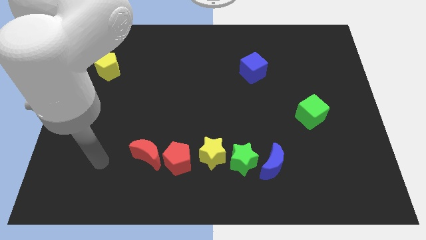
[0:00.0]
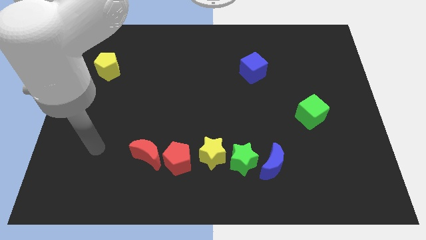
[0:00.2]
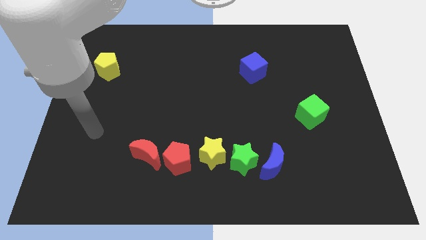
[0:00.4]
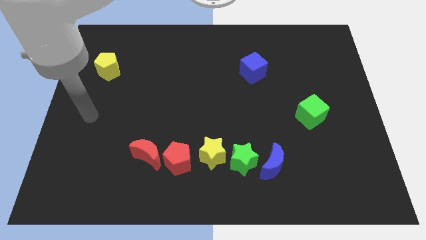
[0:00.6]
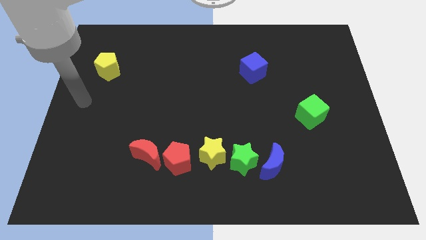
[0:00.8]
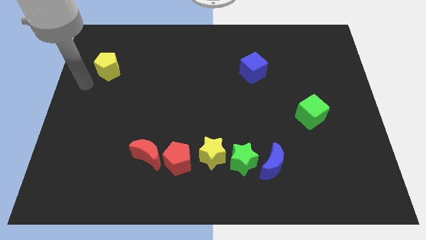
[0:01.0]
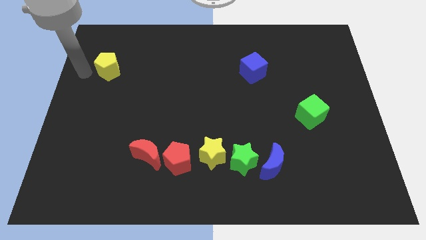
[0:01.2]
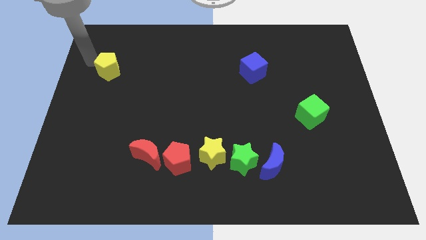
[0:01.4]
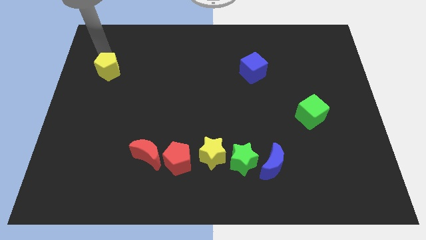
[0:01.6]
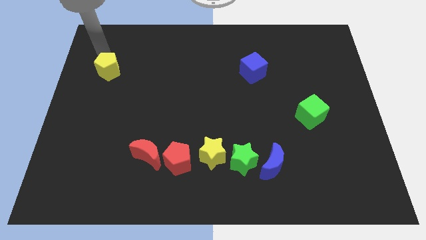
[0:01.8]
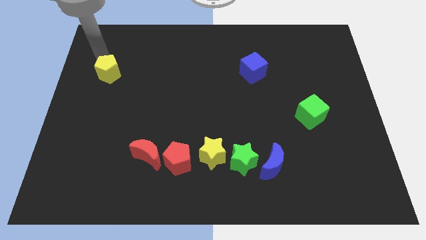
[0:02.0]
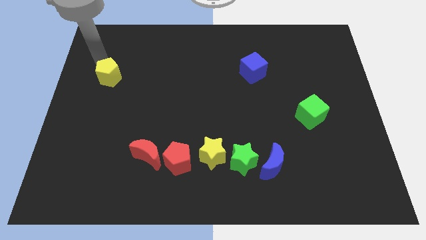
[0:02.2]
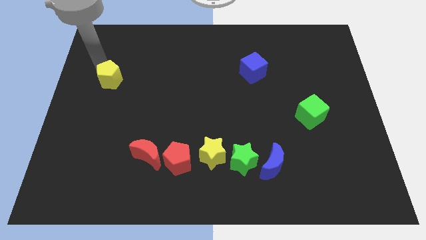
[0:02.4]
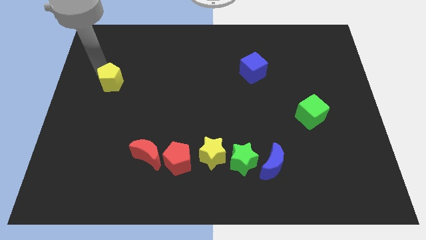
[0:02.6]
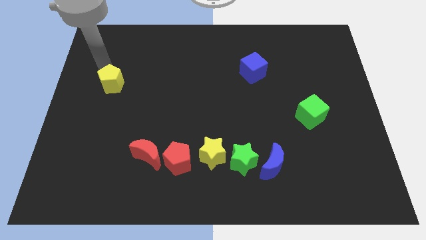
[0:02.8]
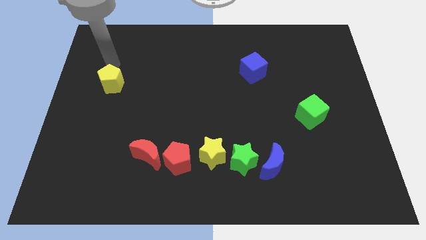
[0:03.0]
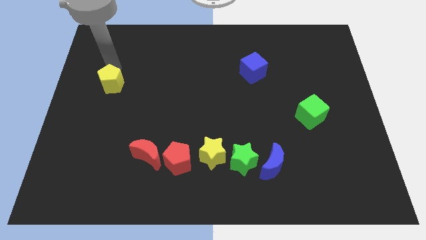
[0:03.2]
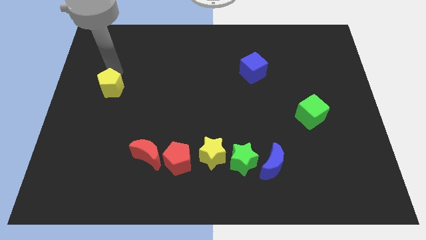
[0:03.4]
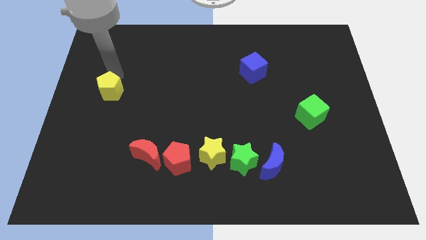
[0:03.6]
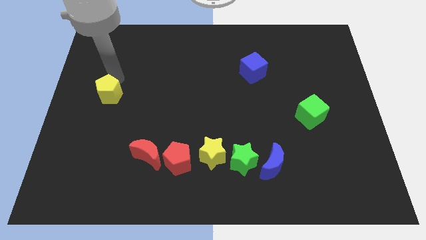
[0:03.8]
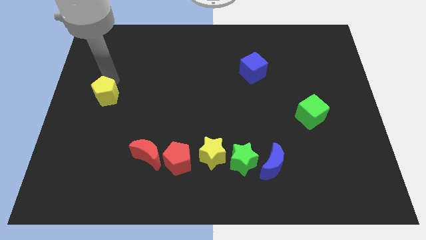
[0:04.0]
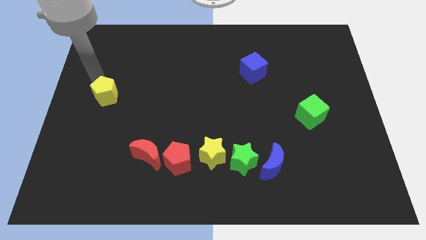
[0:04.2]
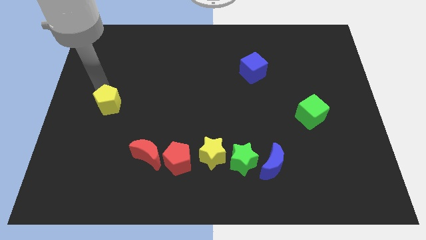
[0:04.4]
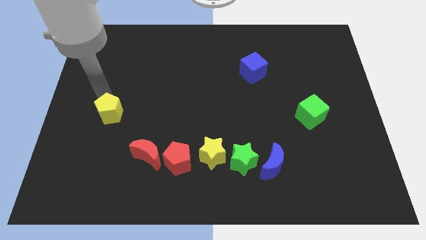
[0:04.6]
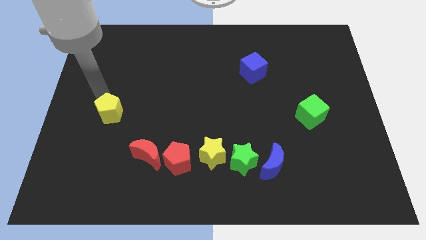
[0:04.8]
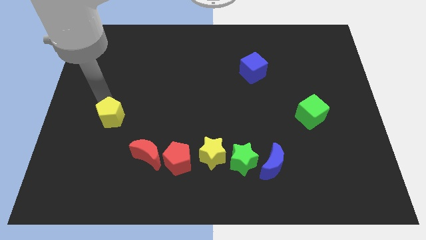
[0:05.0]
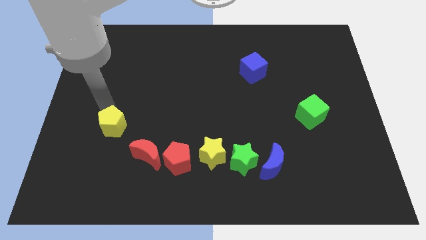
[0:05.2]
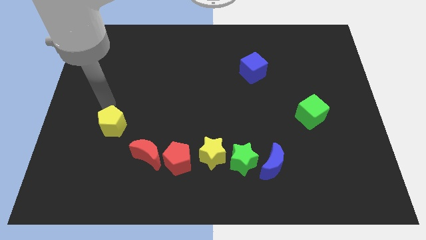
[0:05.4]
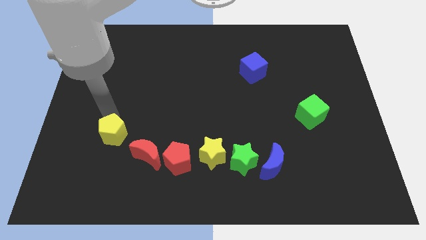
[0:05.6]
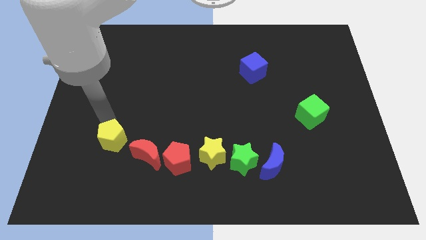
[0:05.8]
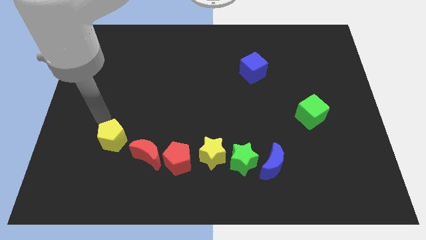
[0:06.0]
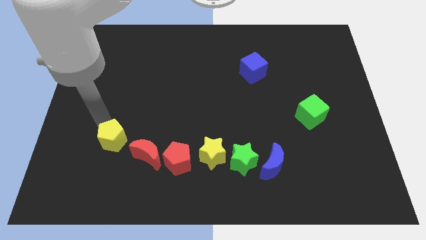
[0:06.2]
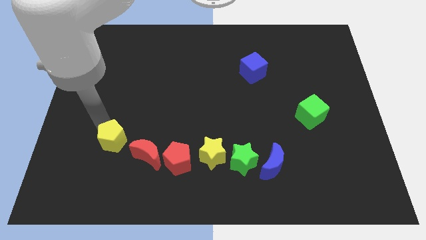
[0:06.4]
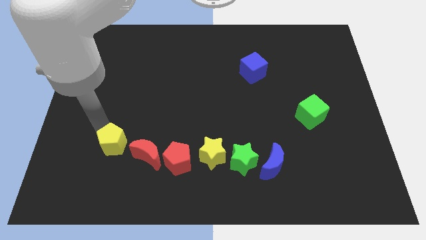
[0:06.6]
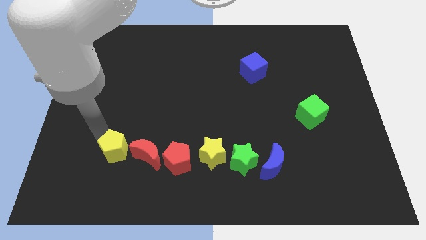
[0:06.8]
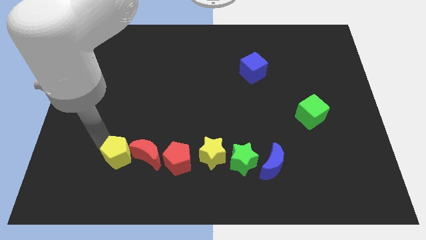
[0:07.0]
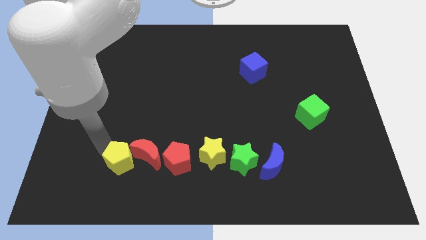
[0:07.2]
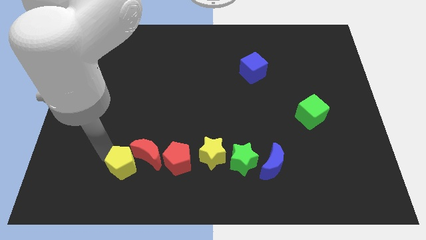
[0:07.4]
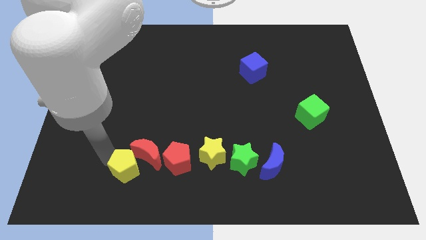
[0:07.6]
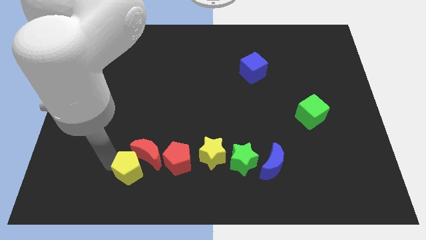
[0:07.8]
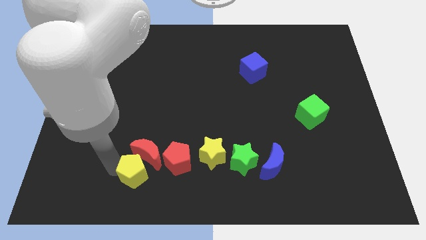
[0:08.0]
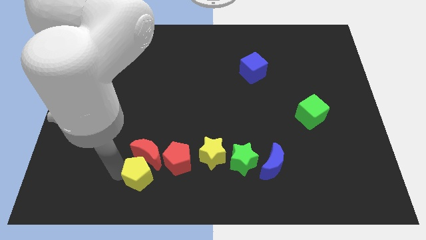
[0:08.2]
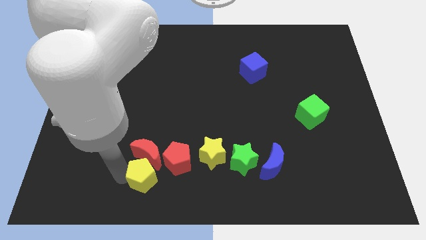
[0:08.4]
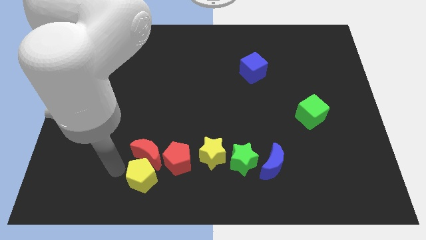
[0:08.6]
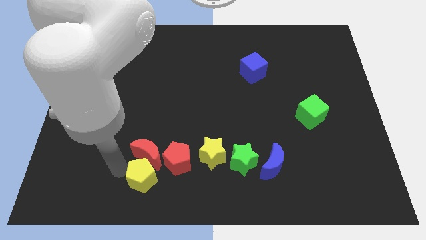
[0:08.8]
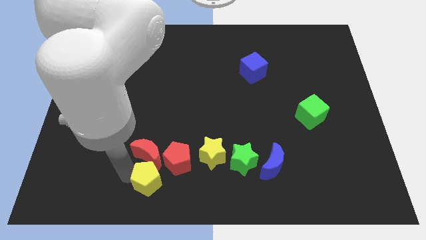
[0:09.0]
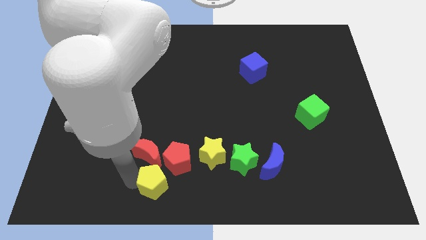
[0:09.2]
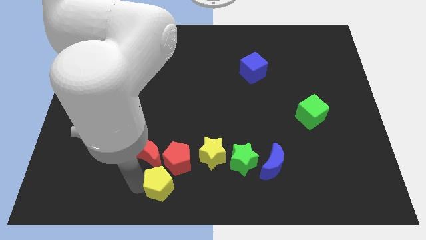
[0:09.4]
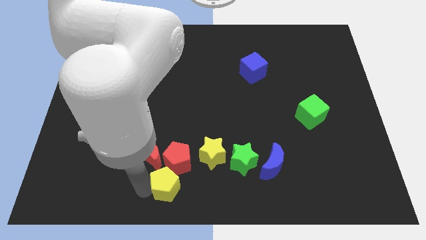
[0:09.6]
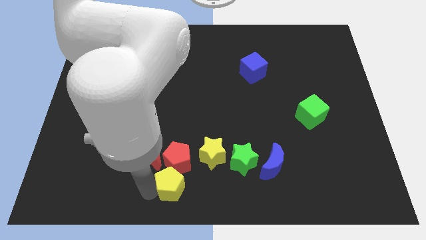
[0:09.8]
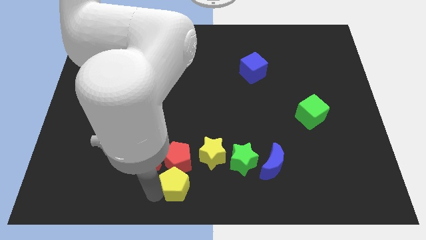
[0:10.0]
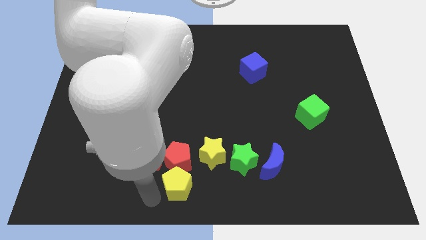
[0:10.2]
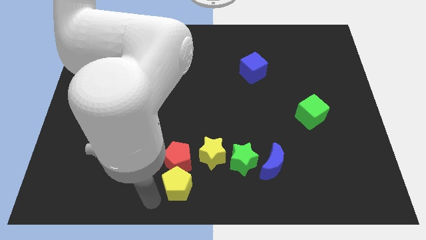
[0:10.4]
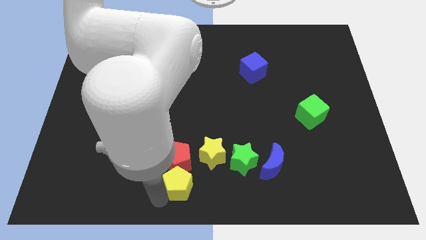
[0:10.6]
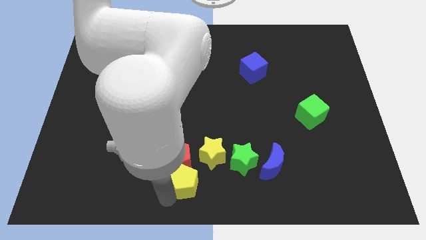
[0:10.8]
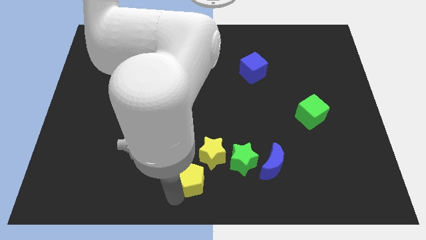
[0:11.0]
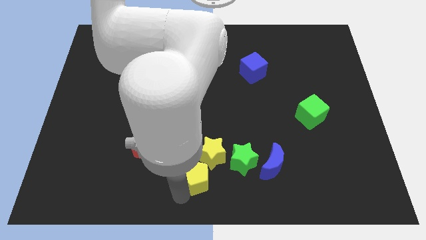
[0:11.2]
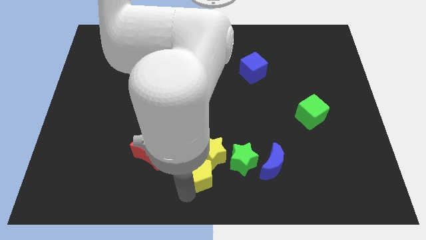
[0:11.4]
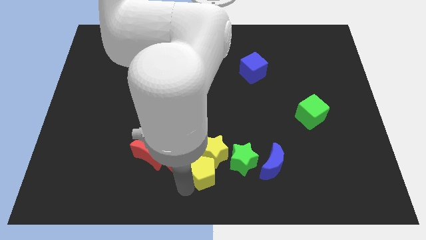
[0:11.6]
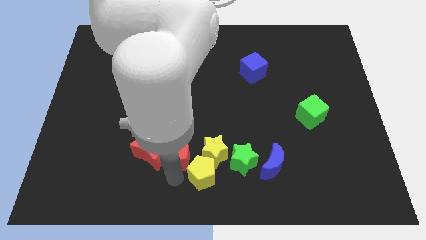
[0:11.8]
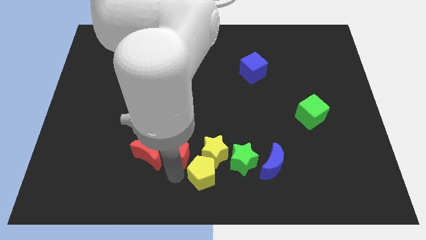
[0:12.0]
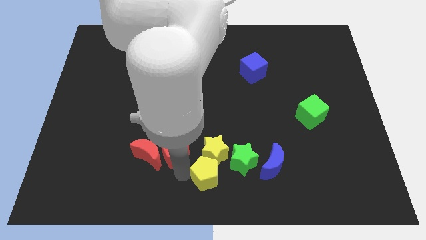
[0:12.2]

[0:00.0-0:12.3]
slide the yellow pentagon to the bottom right of the yellow star
